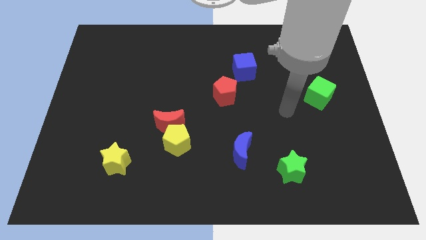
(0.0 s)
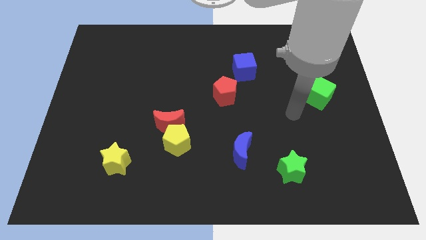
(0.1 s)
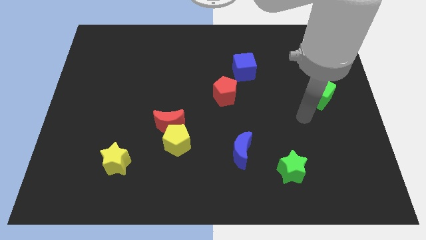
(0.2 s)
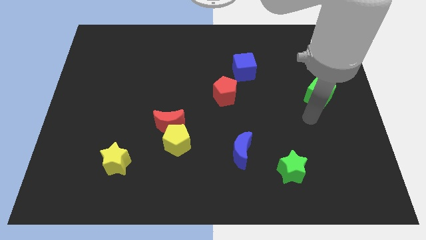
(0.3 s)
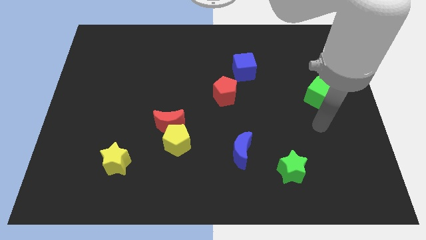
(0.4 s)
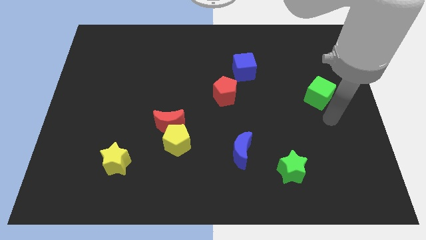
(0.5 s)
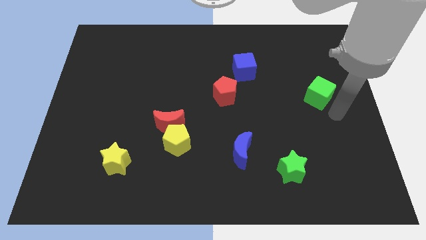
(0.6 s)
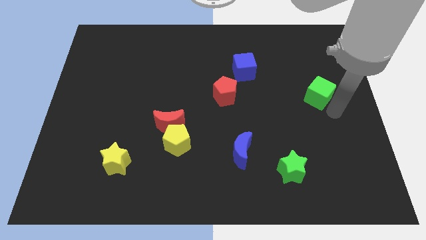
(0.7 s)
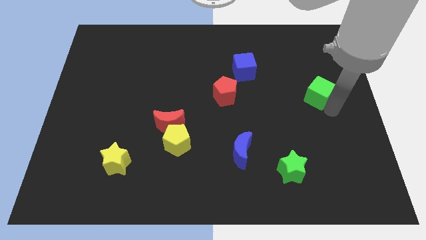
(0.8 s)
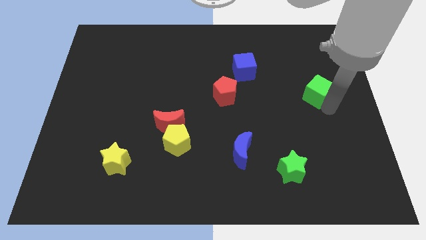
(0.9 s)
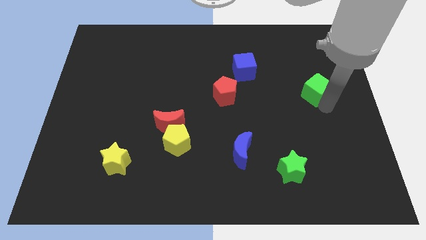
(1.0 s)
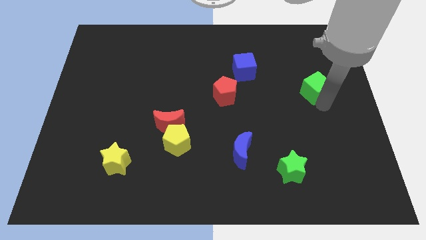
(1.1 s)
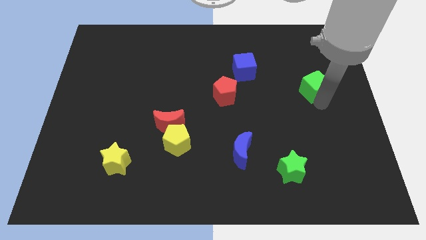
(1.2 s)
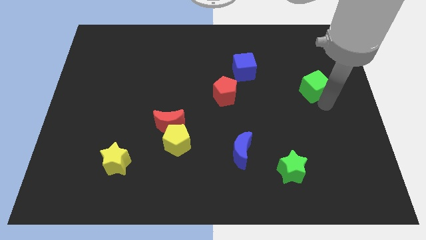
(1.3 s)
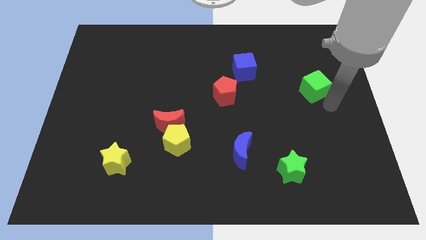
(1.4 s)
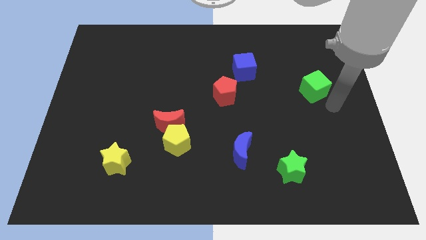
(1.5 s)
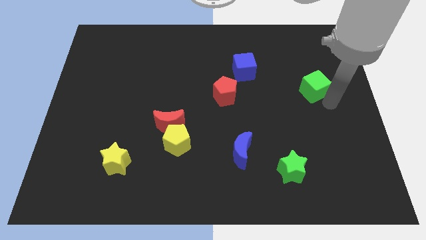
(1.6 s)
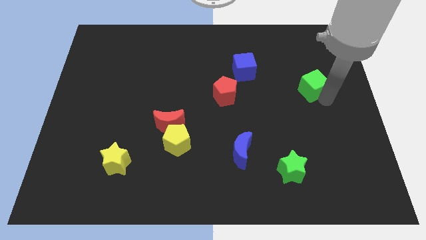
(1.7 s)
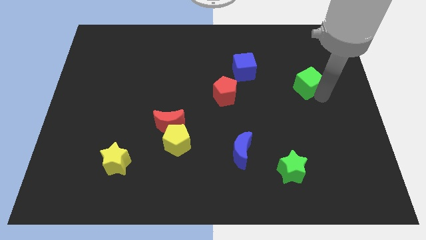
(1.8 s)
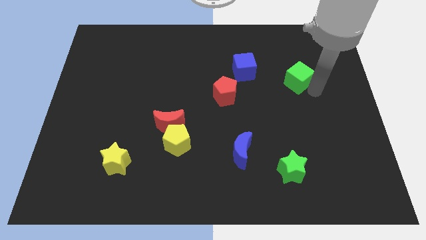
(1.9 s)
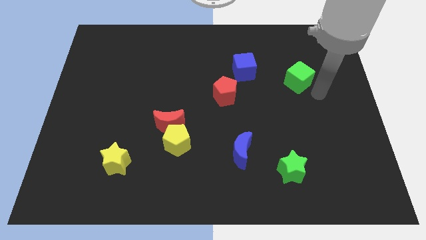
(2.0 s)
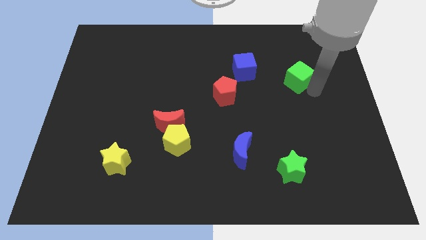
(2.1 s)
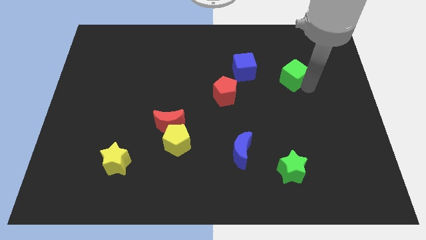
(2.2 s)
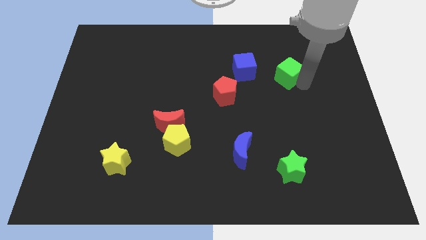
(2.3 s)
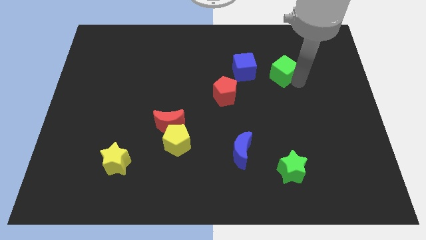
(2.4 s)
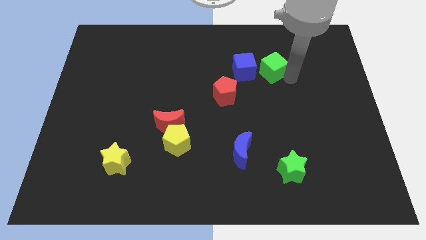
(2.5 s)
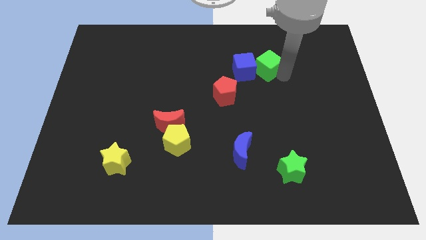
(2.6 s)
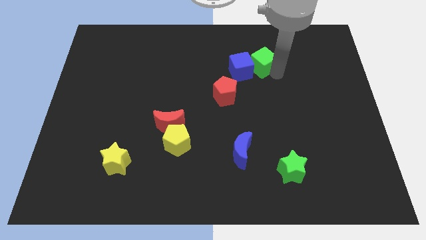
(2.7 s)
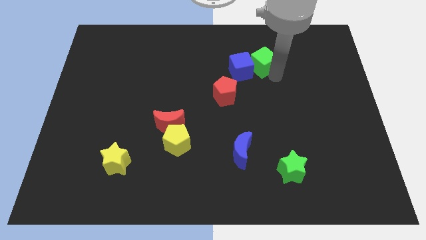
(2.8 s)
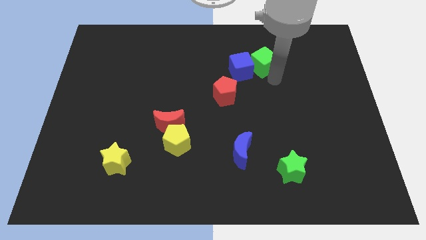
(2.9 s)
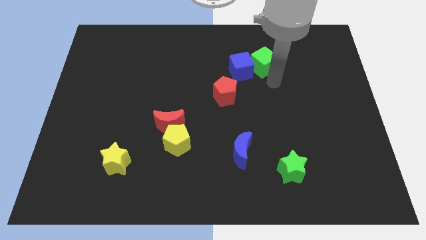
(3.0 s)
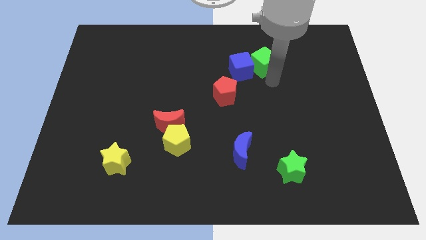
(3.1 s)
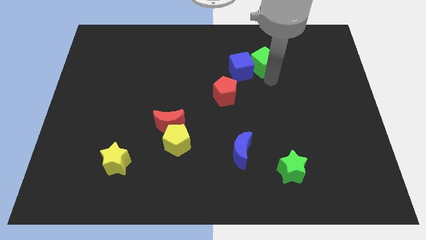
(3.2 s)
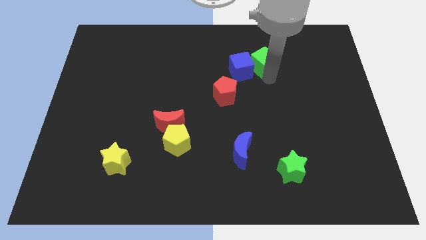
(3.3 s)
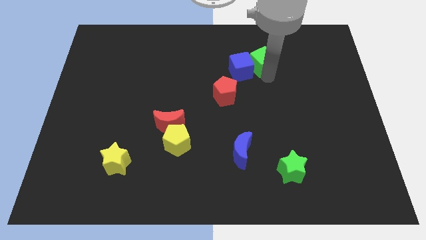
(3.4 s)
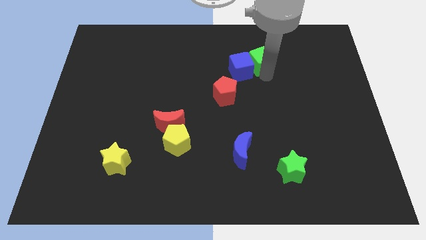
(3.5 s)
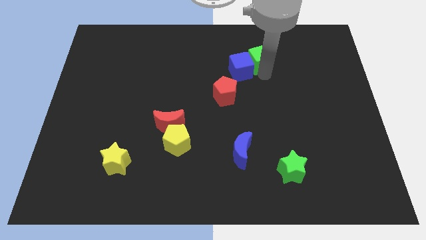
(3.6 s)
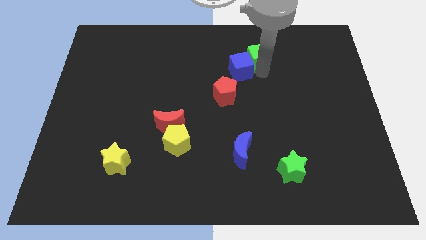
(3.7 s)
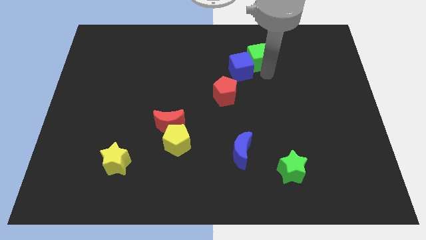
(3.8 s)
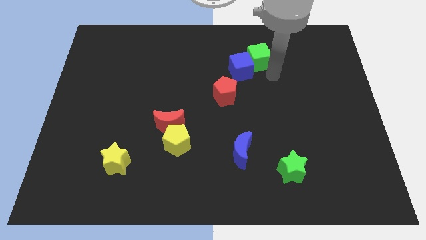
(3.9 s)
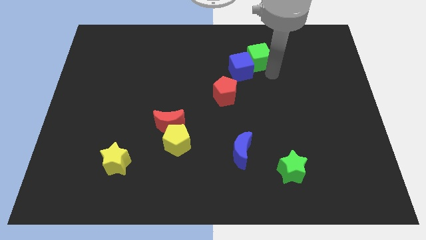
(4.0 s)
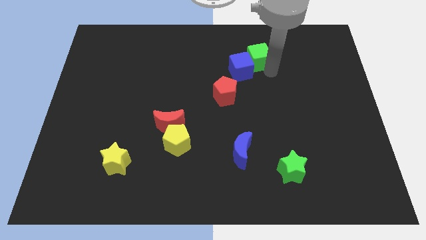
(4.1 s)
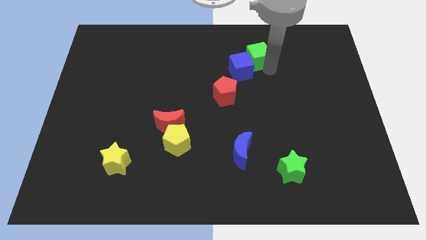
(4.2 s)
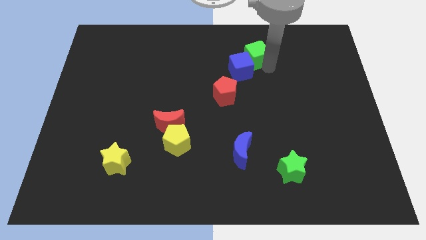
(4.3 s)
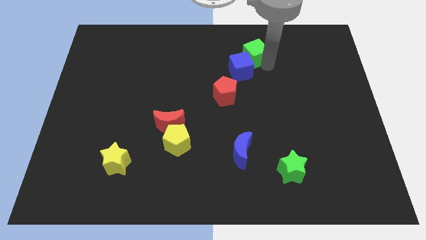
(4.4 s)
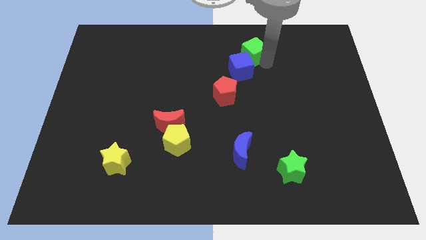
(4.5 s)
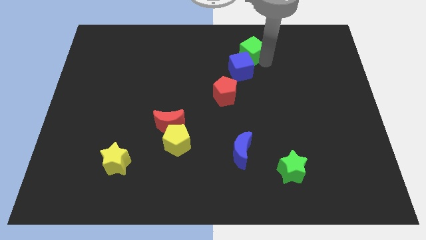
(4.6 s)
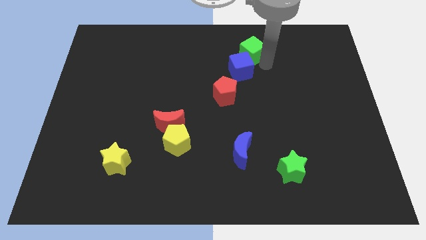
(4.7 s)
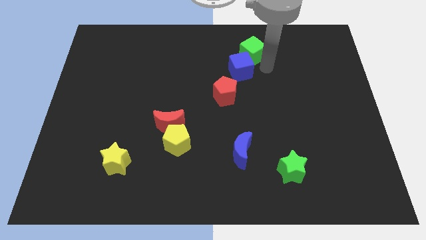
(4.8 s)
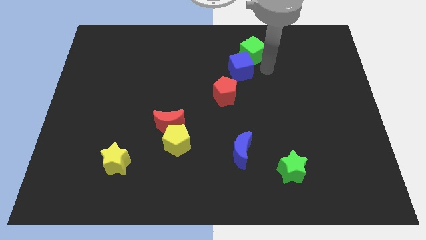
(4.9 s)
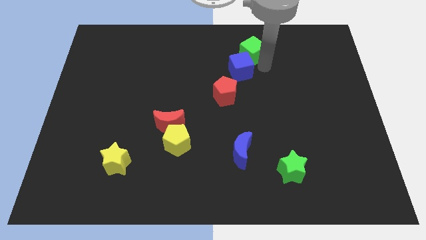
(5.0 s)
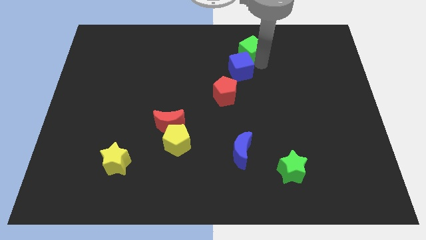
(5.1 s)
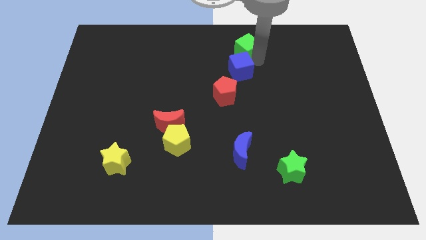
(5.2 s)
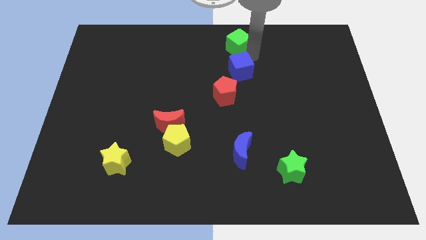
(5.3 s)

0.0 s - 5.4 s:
push the green cube to the towards your base

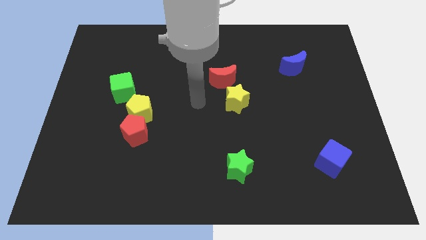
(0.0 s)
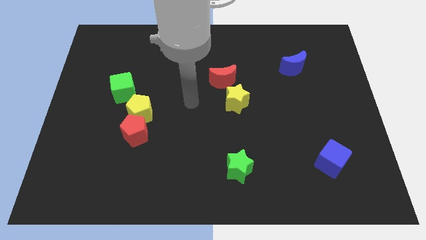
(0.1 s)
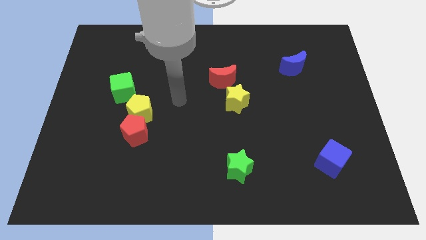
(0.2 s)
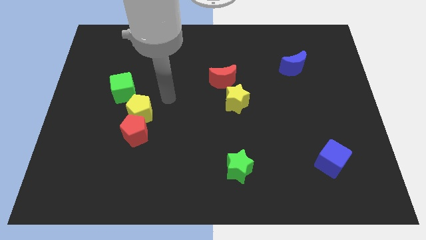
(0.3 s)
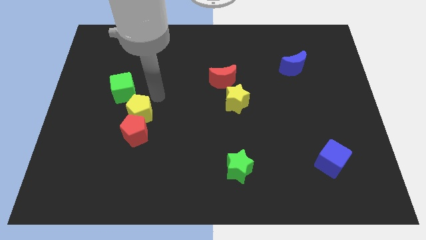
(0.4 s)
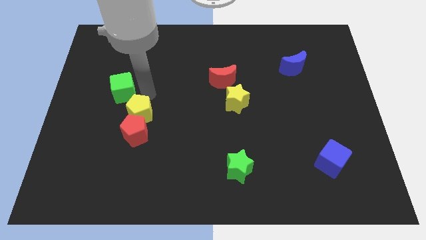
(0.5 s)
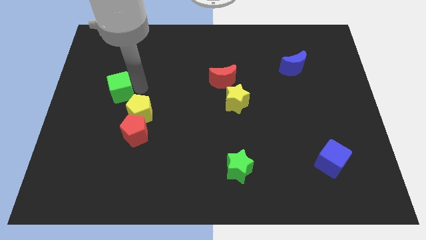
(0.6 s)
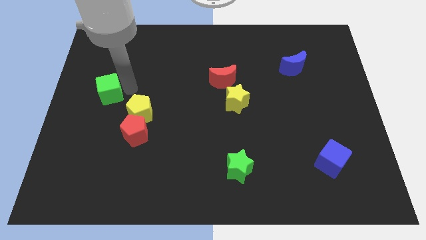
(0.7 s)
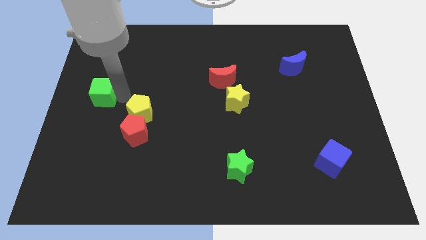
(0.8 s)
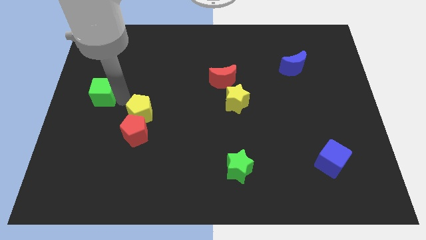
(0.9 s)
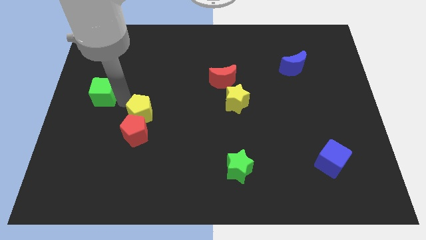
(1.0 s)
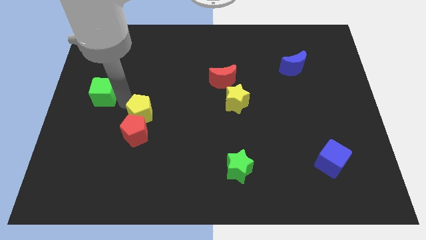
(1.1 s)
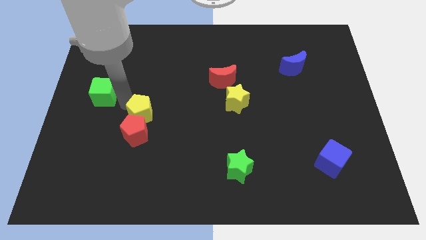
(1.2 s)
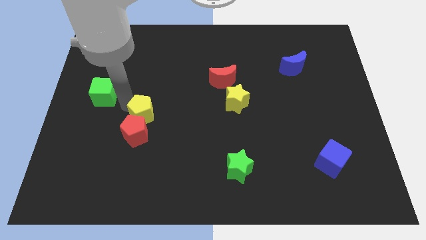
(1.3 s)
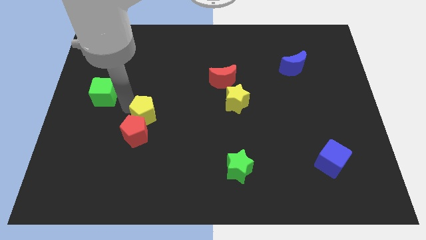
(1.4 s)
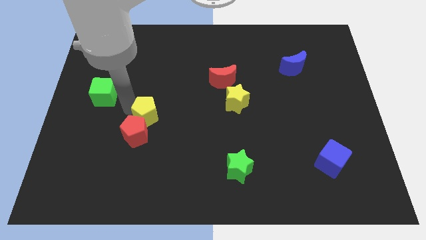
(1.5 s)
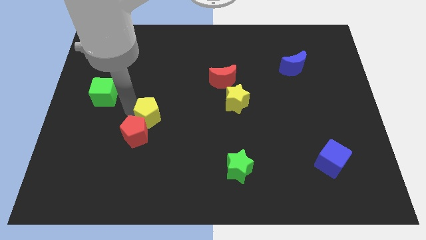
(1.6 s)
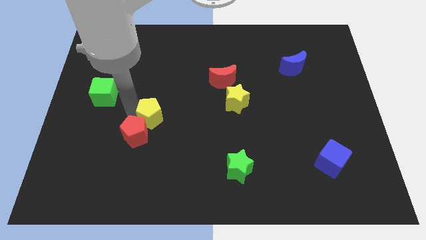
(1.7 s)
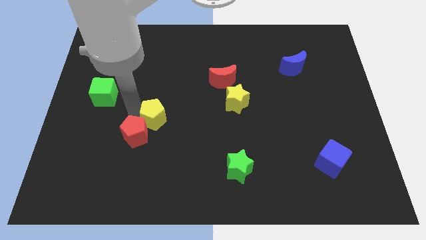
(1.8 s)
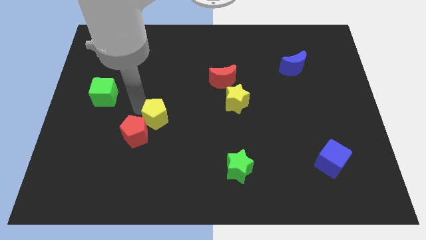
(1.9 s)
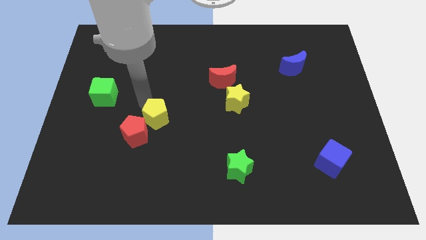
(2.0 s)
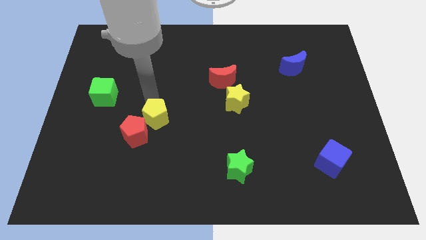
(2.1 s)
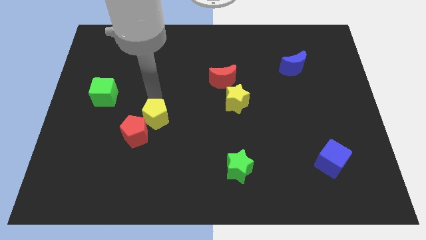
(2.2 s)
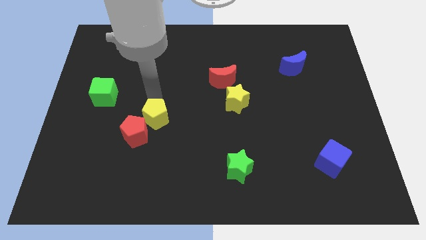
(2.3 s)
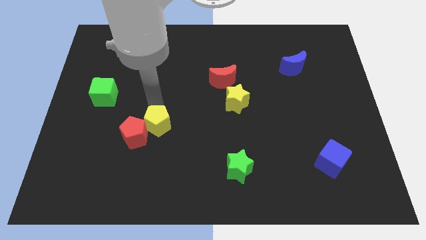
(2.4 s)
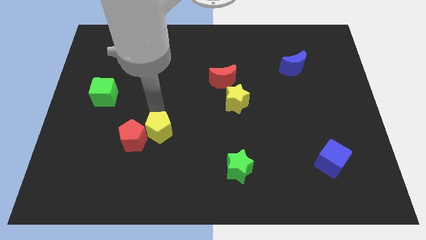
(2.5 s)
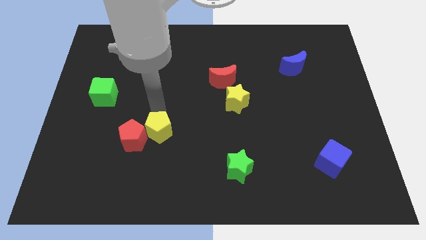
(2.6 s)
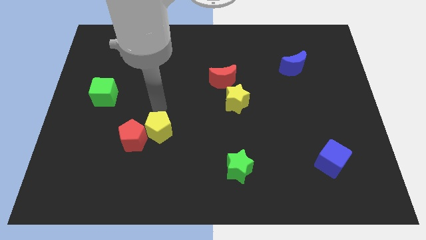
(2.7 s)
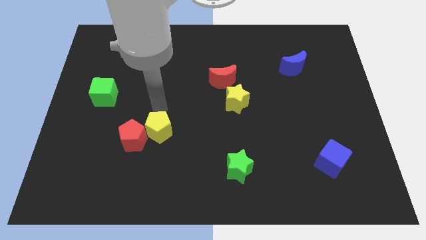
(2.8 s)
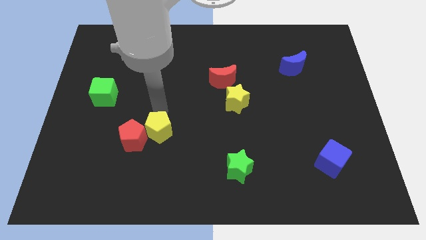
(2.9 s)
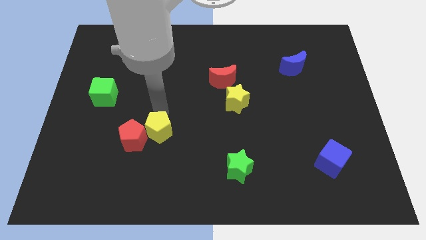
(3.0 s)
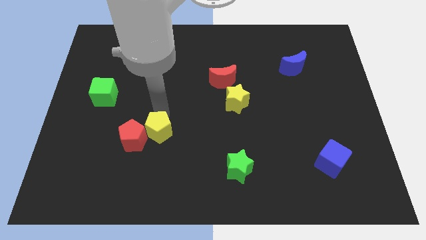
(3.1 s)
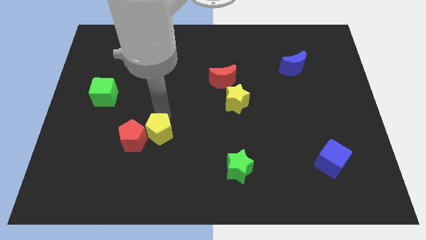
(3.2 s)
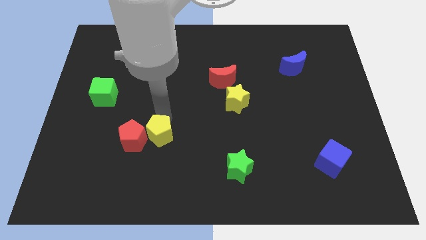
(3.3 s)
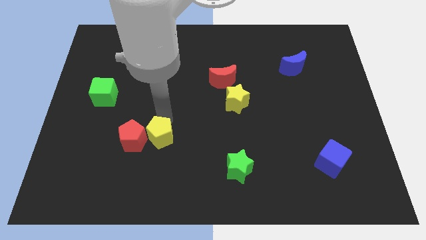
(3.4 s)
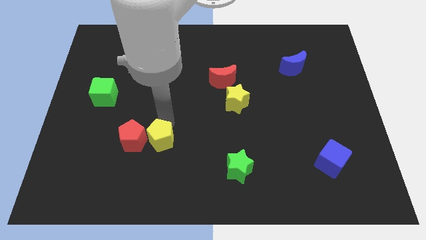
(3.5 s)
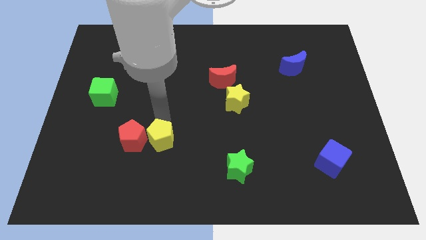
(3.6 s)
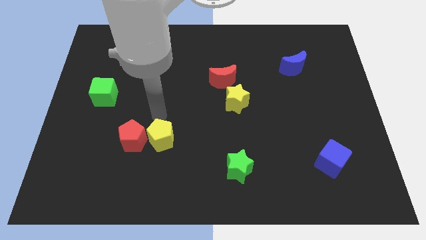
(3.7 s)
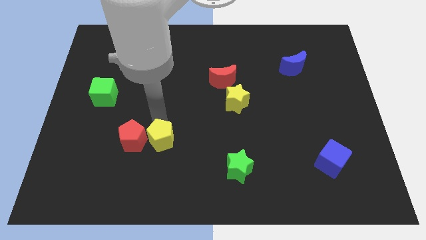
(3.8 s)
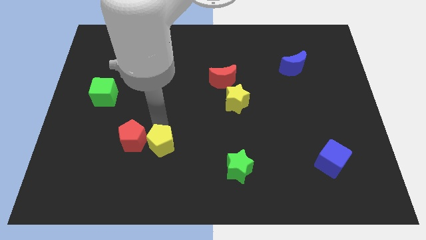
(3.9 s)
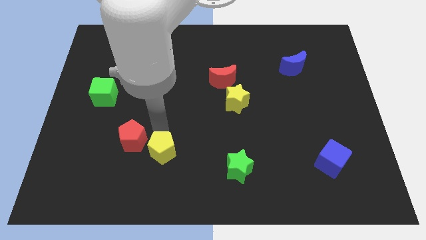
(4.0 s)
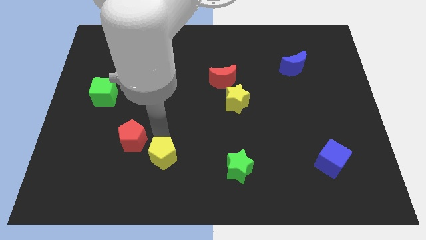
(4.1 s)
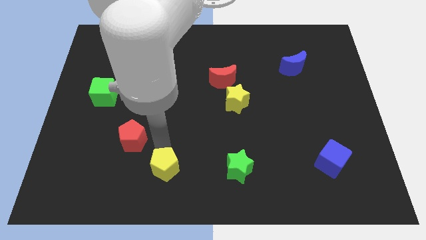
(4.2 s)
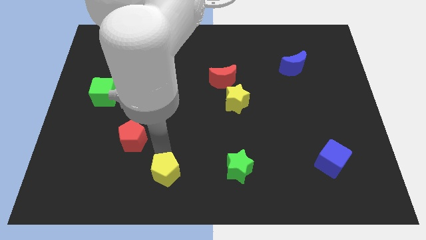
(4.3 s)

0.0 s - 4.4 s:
move the yellow pentagon to the bottom side
